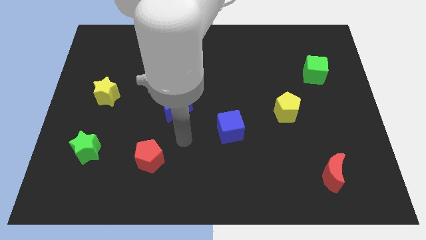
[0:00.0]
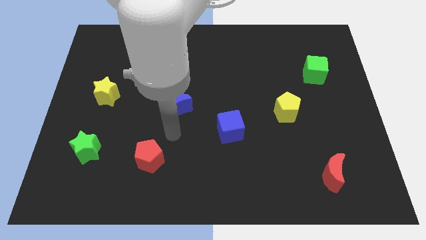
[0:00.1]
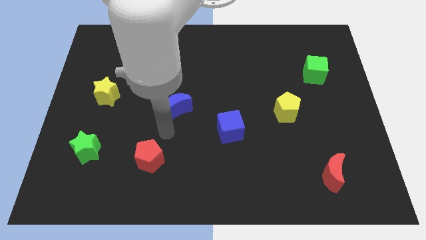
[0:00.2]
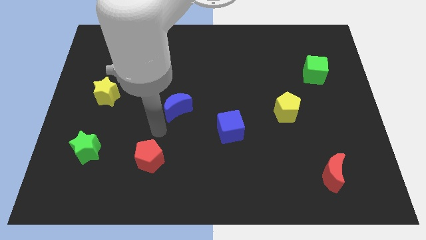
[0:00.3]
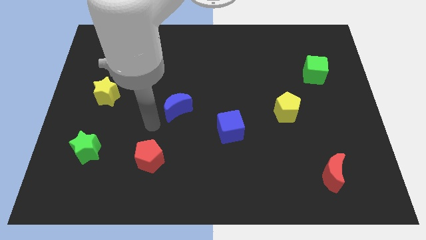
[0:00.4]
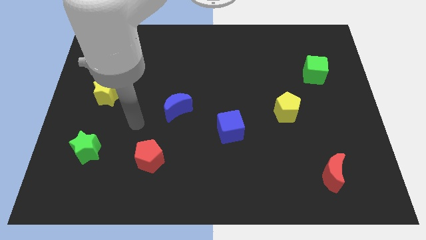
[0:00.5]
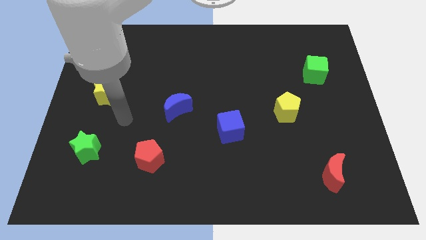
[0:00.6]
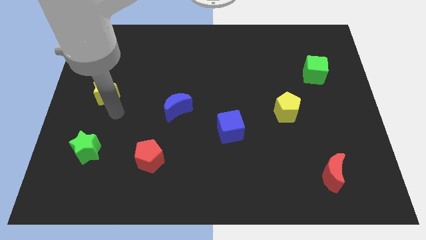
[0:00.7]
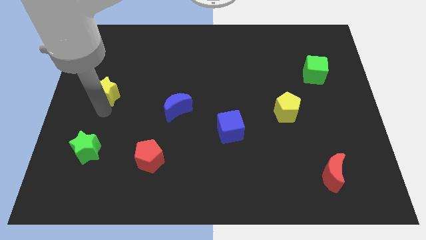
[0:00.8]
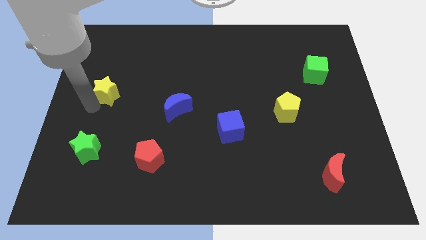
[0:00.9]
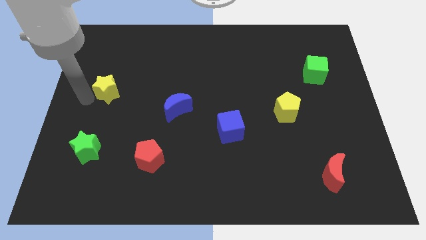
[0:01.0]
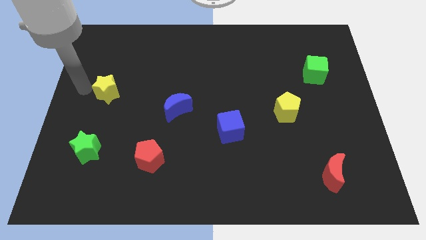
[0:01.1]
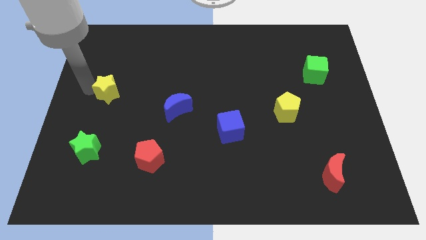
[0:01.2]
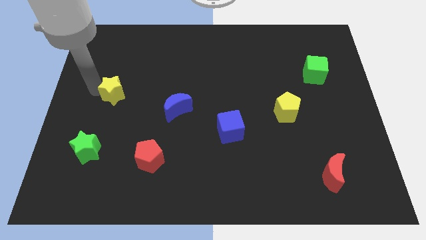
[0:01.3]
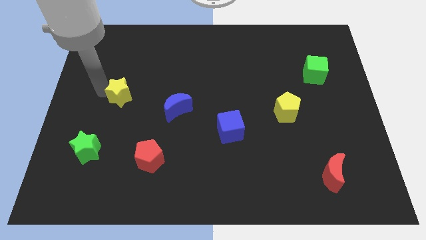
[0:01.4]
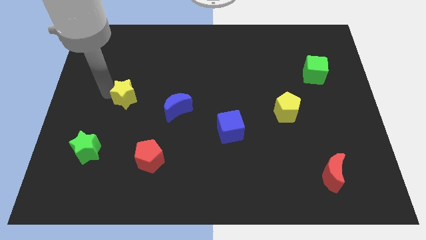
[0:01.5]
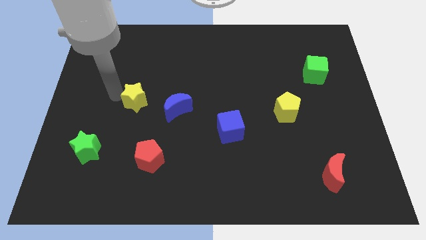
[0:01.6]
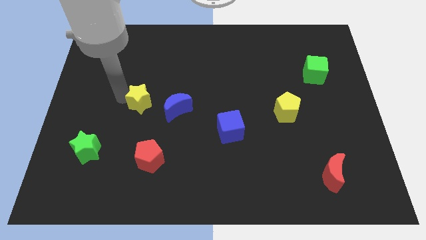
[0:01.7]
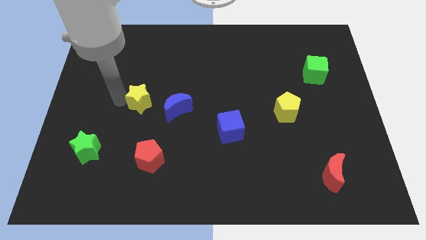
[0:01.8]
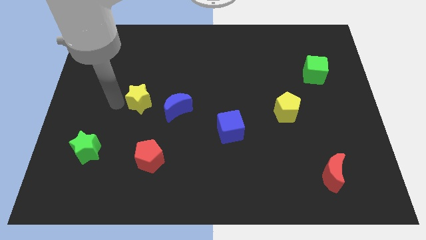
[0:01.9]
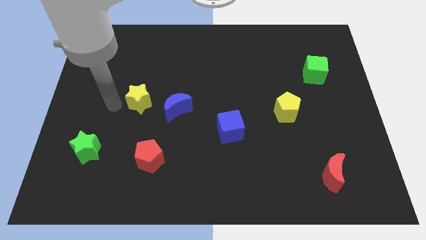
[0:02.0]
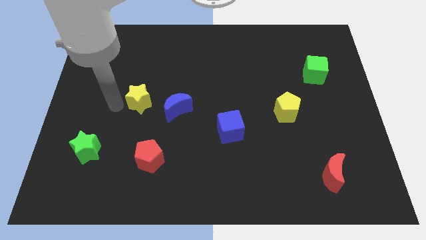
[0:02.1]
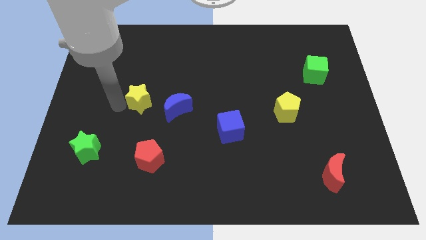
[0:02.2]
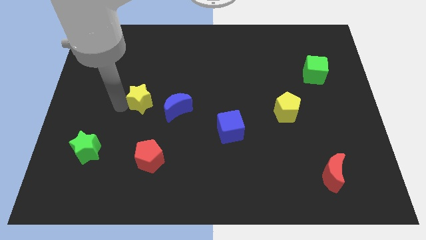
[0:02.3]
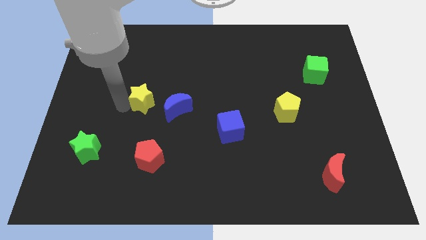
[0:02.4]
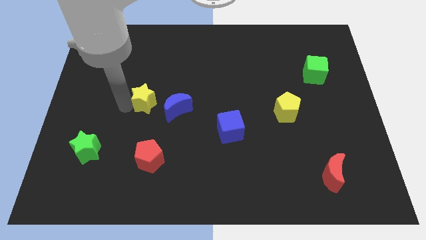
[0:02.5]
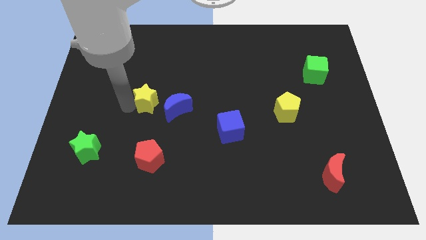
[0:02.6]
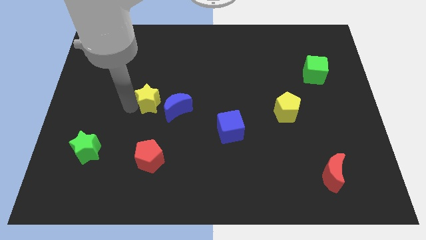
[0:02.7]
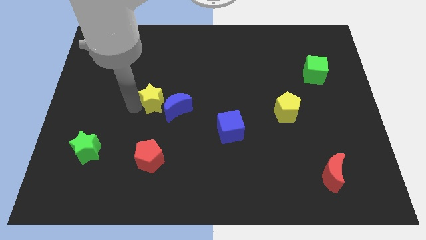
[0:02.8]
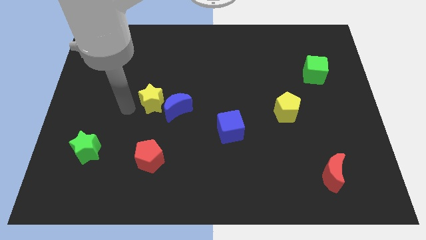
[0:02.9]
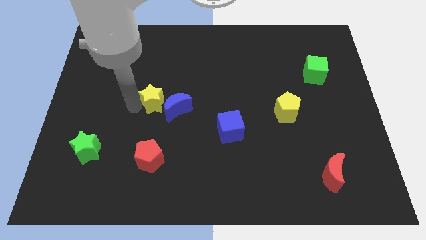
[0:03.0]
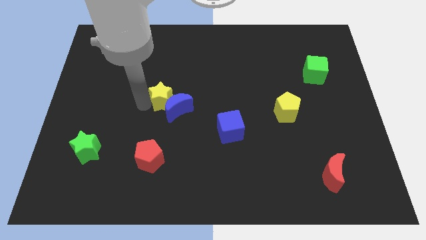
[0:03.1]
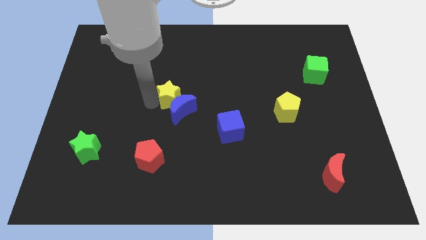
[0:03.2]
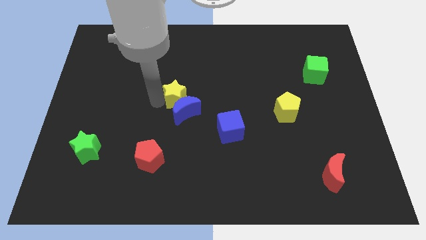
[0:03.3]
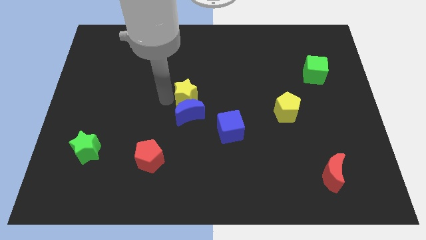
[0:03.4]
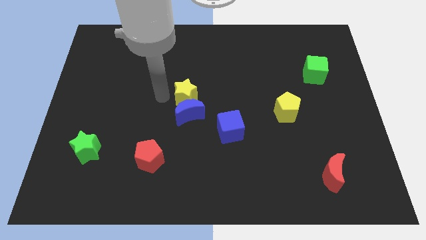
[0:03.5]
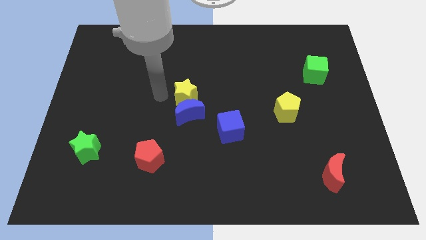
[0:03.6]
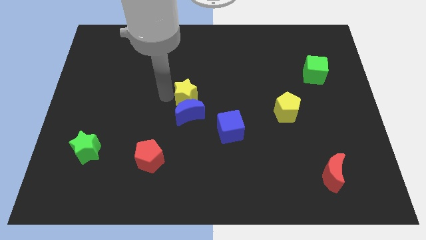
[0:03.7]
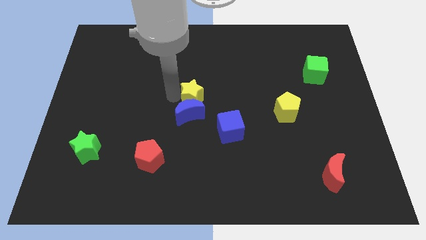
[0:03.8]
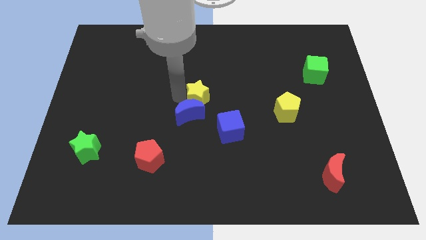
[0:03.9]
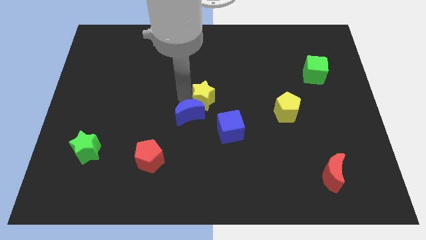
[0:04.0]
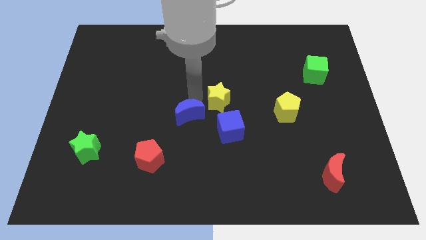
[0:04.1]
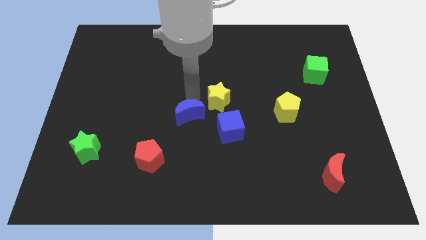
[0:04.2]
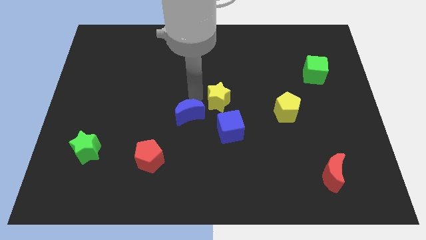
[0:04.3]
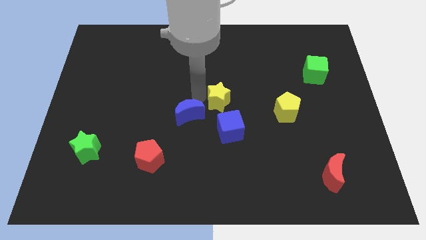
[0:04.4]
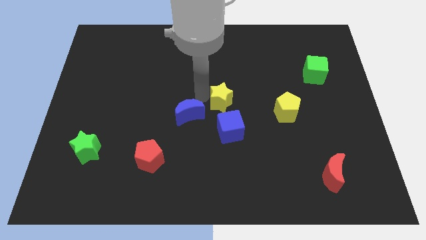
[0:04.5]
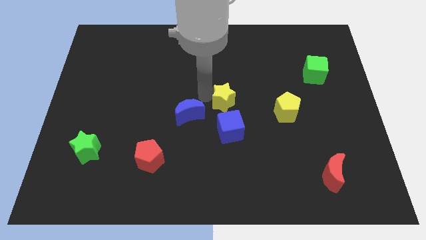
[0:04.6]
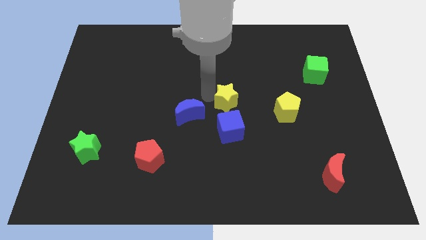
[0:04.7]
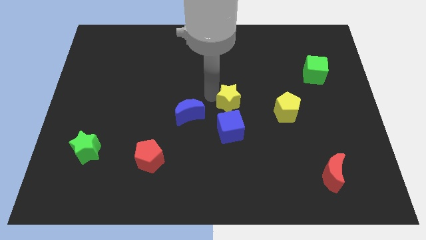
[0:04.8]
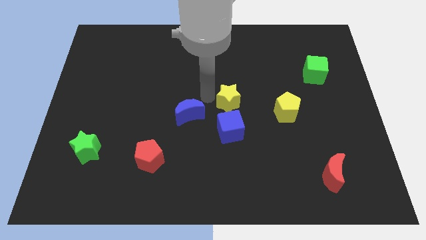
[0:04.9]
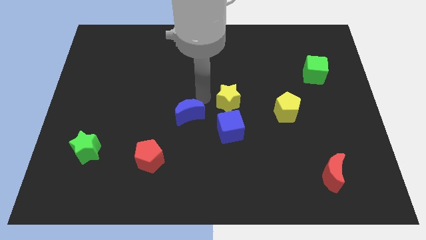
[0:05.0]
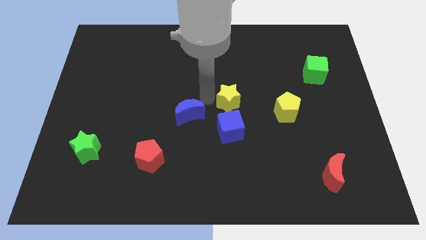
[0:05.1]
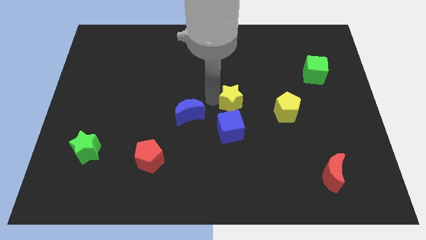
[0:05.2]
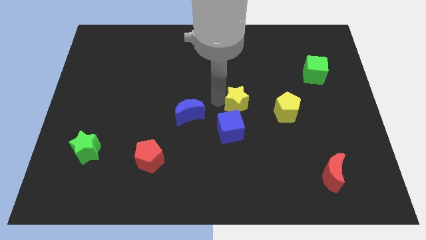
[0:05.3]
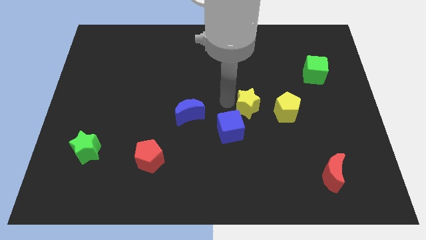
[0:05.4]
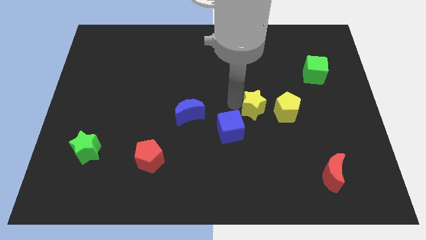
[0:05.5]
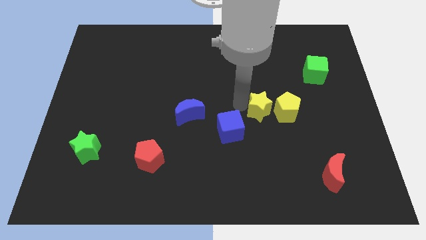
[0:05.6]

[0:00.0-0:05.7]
move the yellow star to the yellow pentagon
